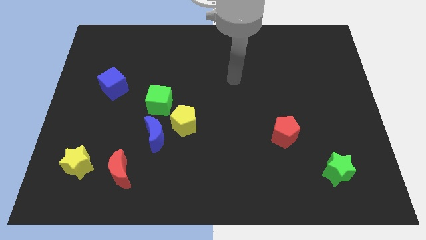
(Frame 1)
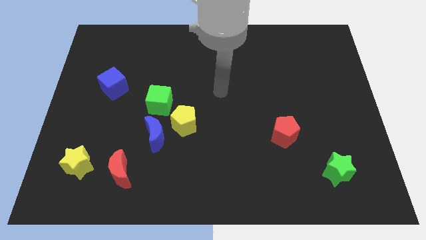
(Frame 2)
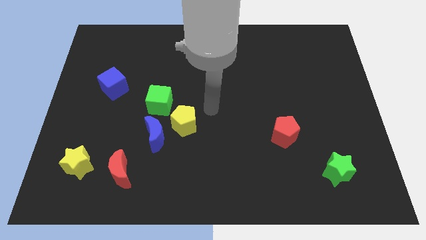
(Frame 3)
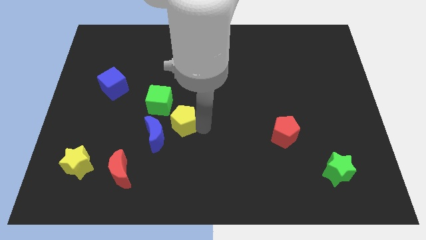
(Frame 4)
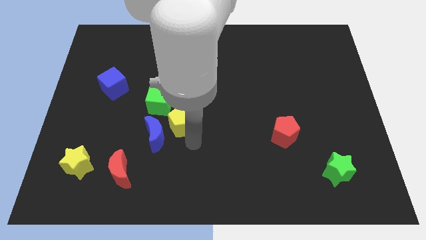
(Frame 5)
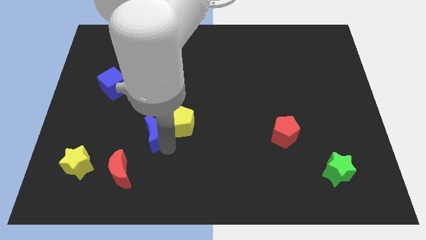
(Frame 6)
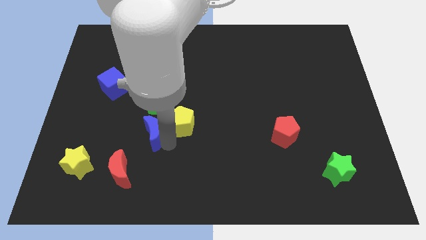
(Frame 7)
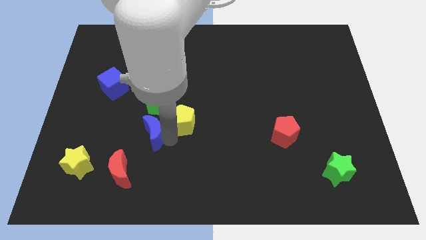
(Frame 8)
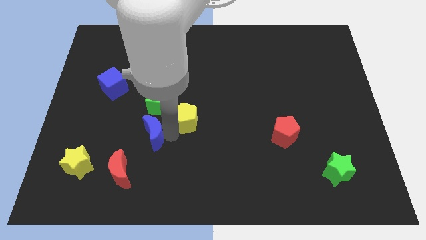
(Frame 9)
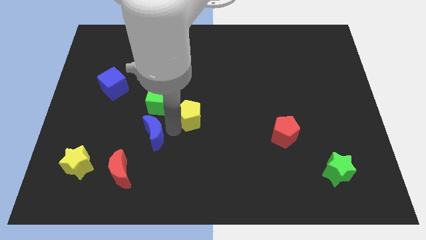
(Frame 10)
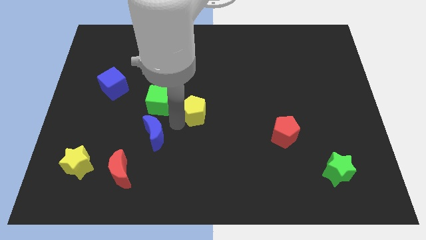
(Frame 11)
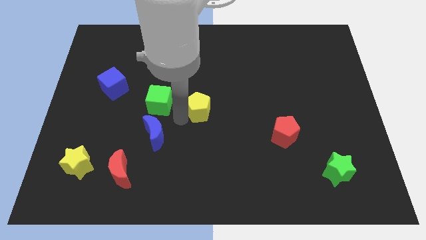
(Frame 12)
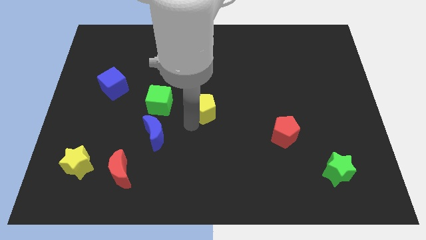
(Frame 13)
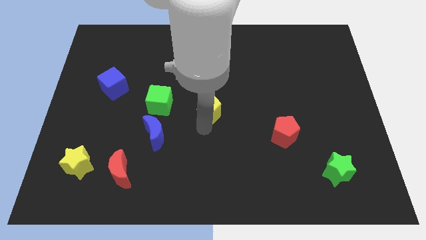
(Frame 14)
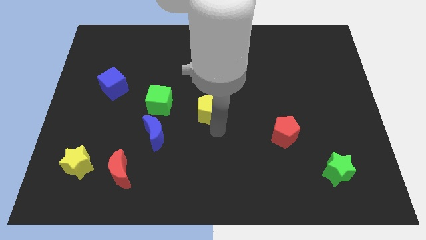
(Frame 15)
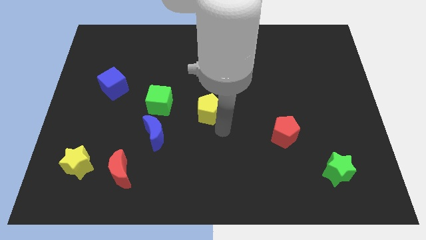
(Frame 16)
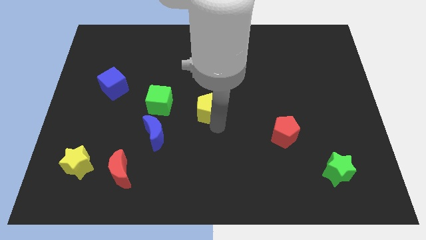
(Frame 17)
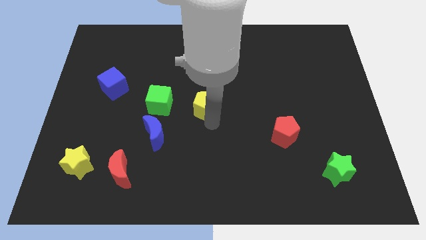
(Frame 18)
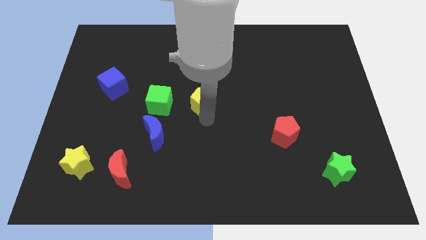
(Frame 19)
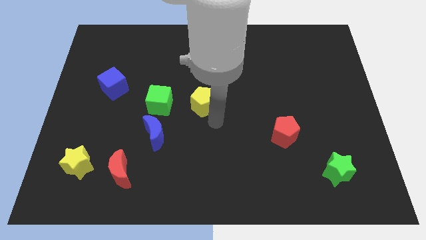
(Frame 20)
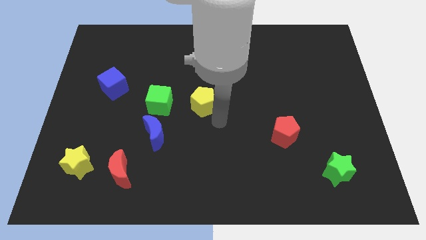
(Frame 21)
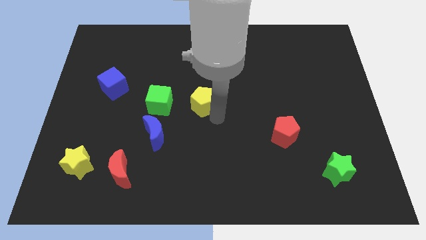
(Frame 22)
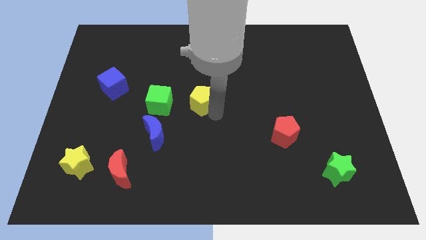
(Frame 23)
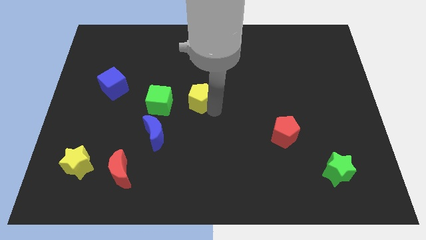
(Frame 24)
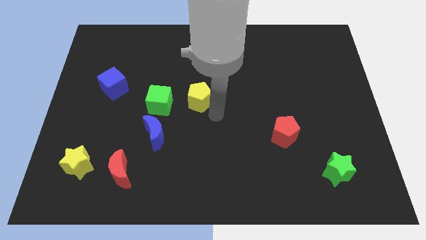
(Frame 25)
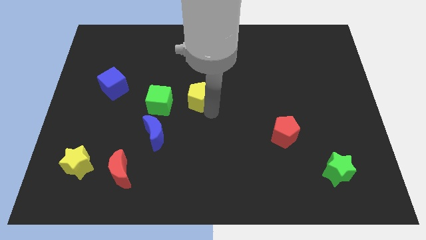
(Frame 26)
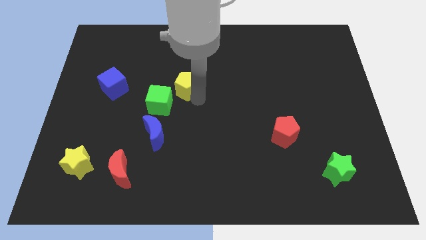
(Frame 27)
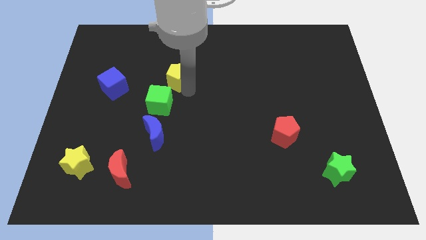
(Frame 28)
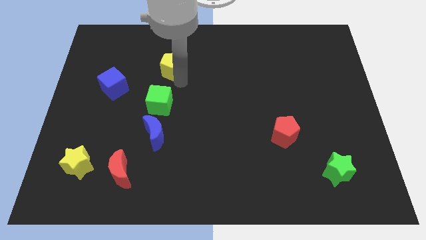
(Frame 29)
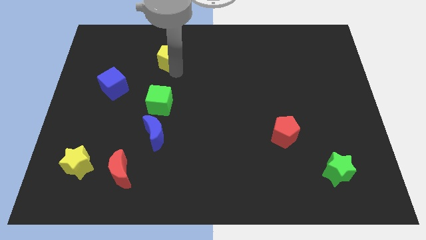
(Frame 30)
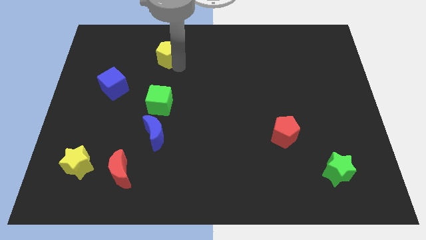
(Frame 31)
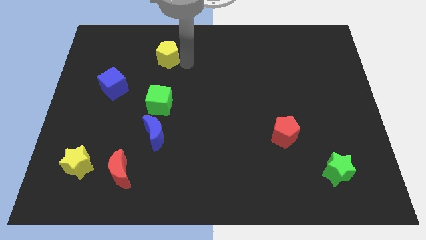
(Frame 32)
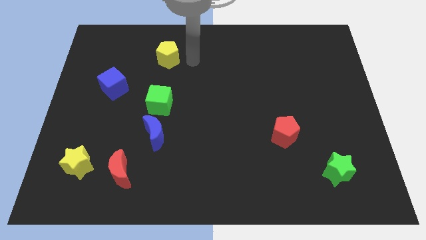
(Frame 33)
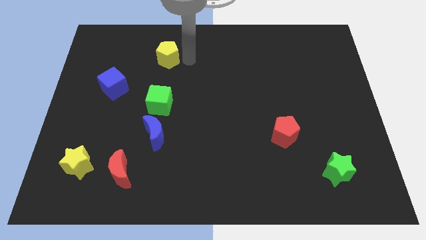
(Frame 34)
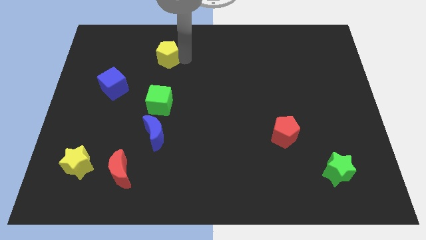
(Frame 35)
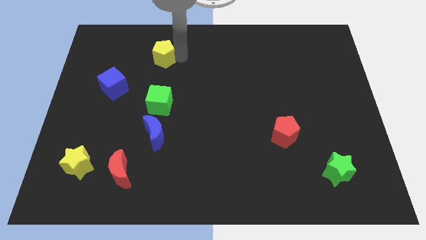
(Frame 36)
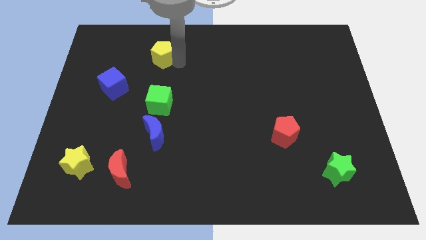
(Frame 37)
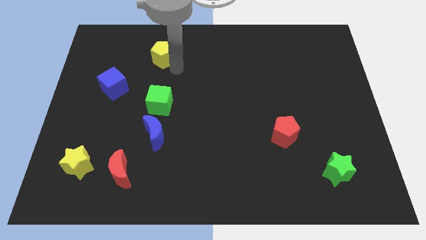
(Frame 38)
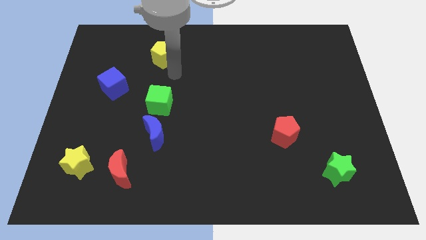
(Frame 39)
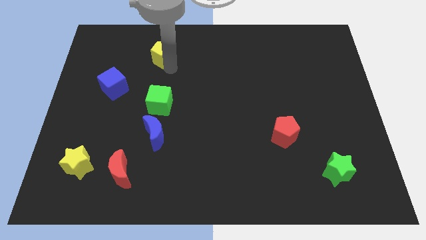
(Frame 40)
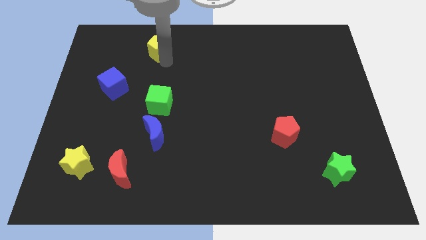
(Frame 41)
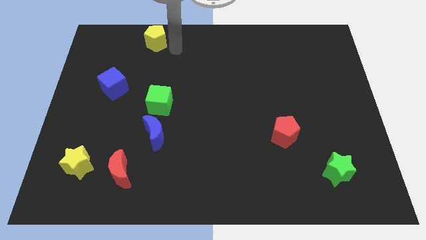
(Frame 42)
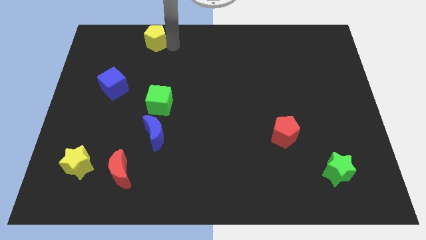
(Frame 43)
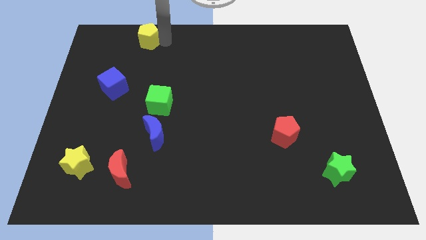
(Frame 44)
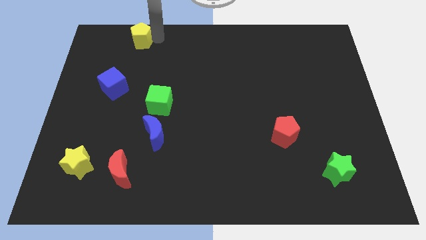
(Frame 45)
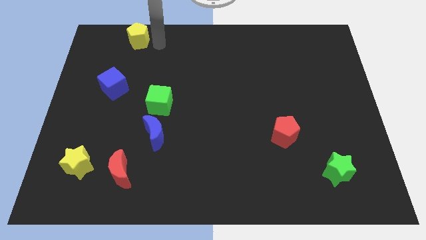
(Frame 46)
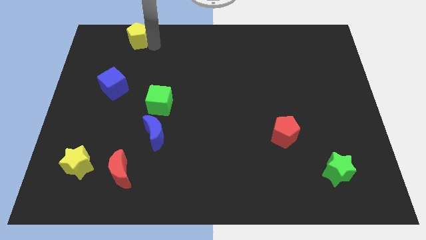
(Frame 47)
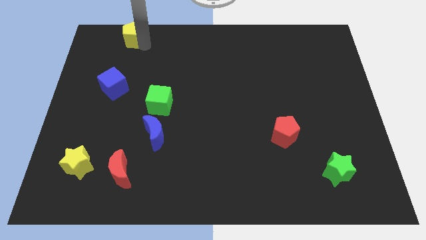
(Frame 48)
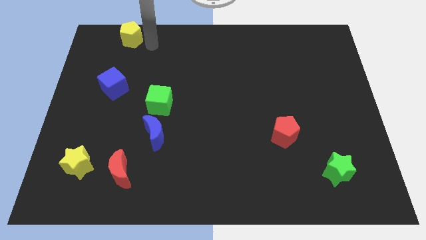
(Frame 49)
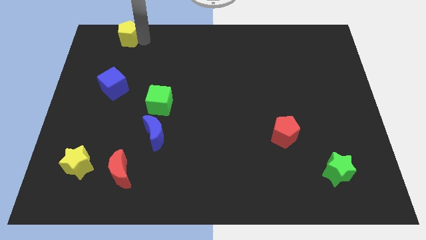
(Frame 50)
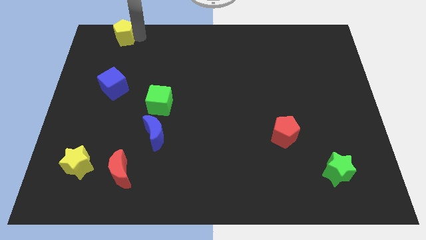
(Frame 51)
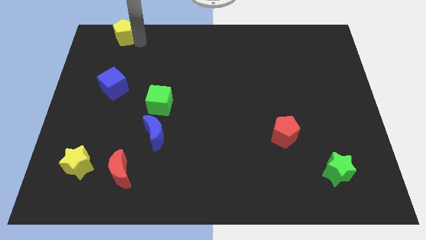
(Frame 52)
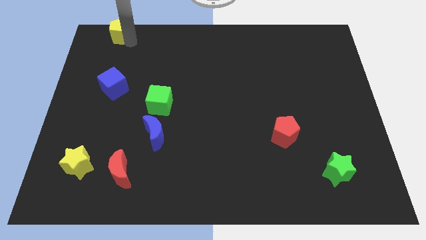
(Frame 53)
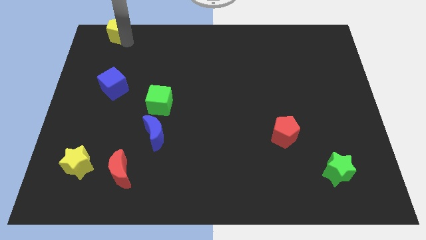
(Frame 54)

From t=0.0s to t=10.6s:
put the yellow pentagon to the top left of the board

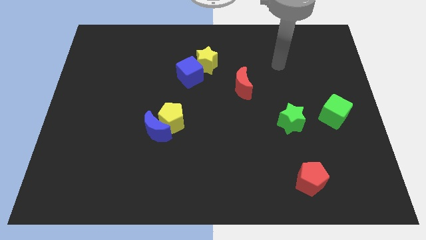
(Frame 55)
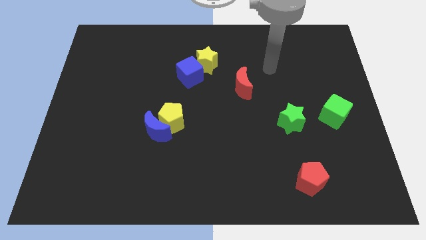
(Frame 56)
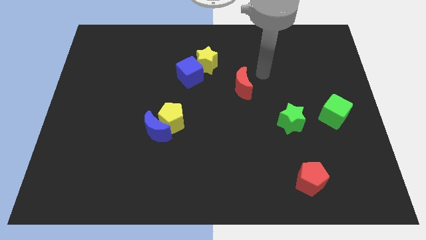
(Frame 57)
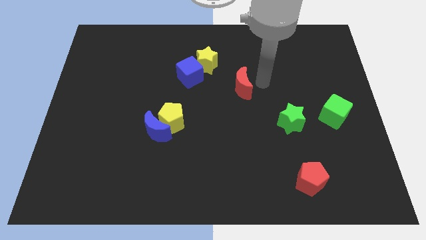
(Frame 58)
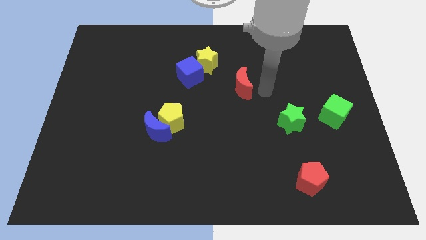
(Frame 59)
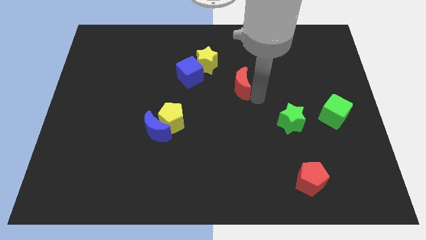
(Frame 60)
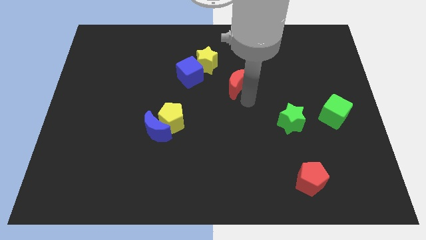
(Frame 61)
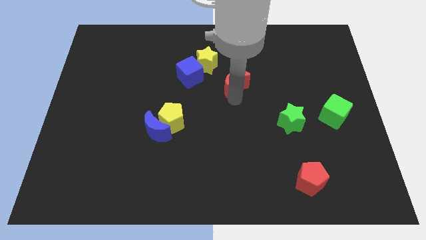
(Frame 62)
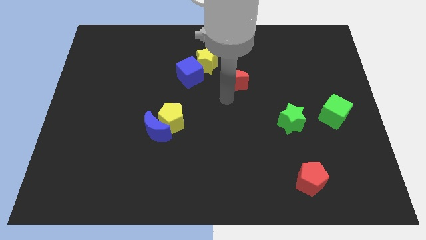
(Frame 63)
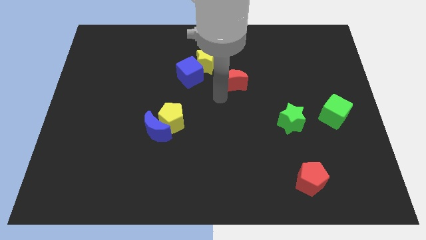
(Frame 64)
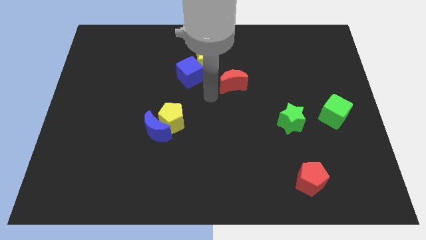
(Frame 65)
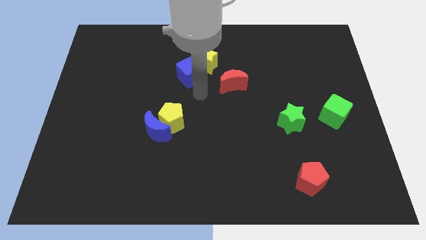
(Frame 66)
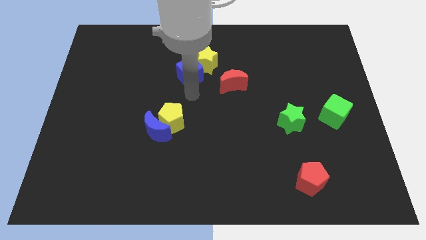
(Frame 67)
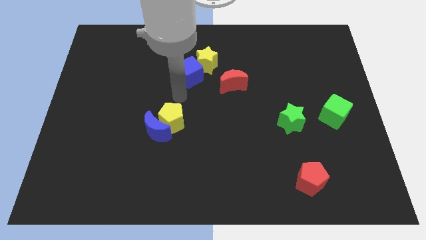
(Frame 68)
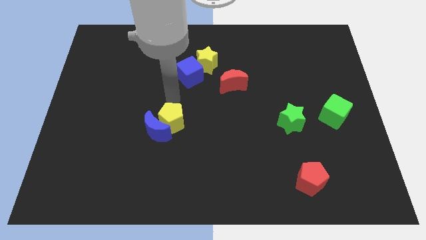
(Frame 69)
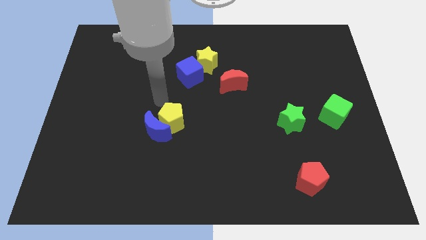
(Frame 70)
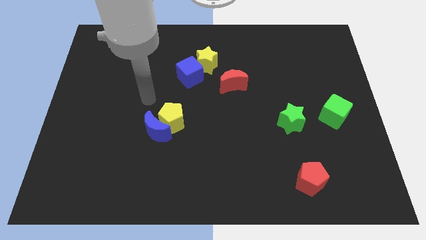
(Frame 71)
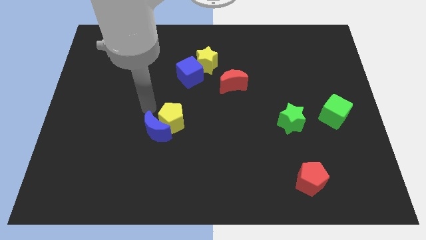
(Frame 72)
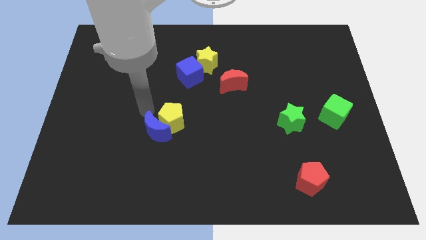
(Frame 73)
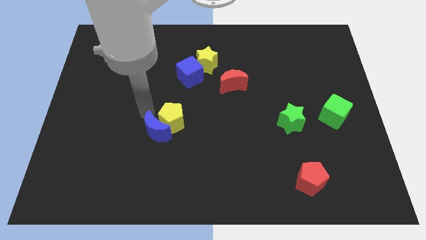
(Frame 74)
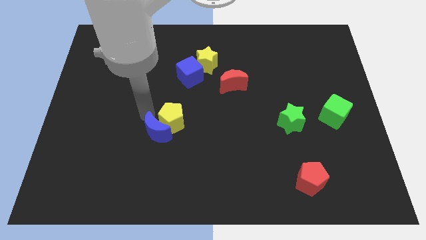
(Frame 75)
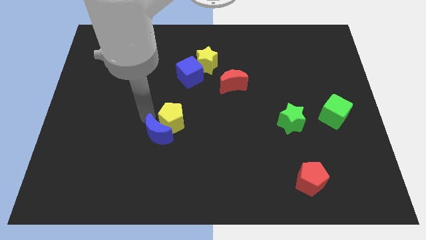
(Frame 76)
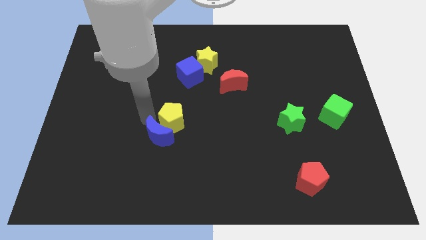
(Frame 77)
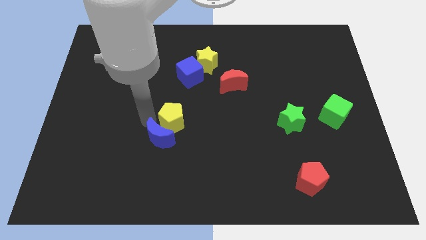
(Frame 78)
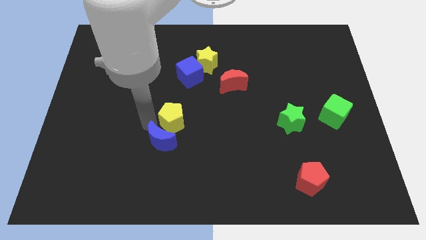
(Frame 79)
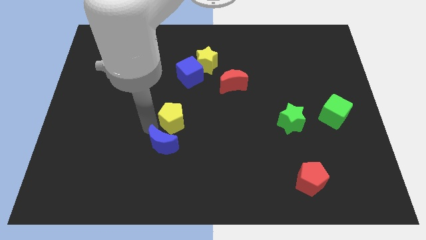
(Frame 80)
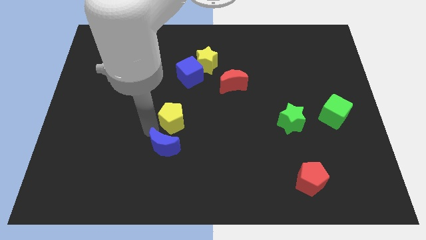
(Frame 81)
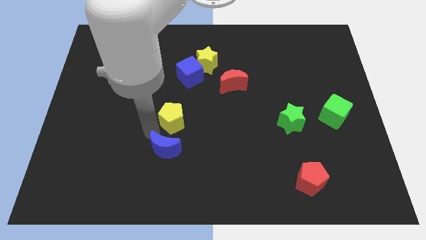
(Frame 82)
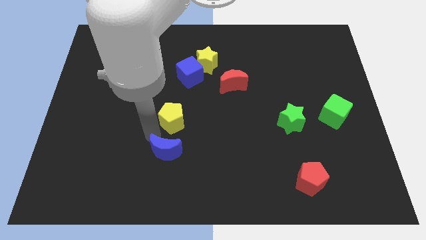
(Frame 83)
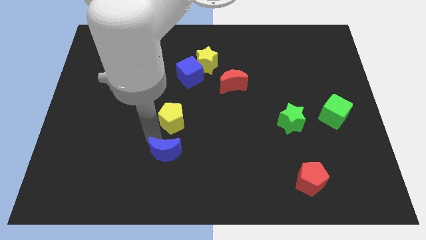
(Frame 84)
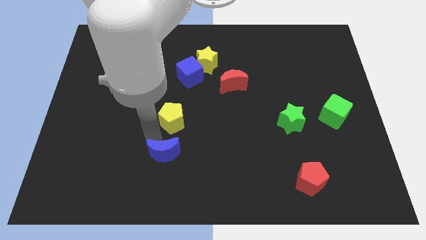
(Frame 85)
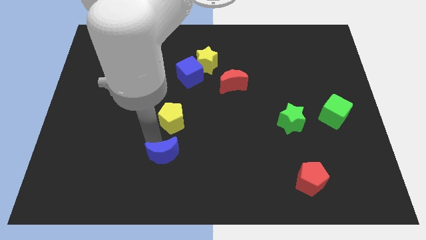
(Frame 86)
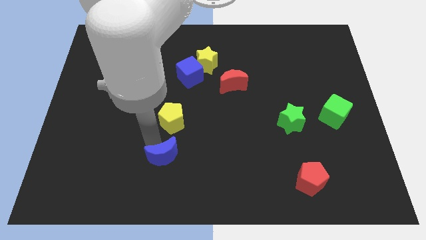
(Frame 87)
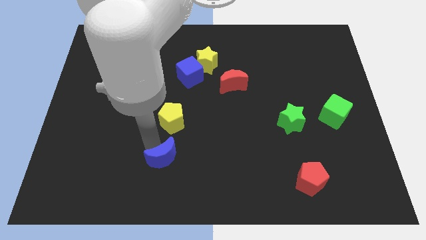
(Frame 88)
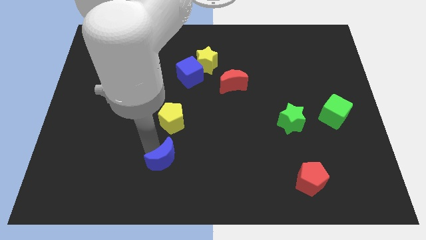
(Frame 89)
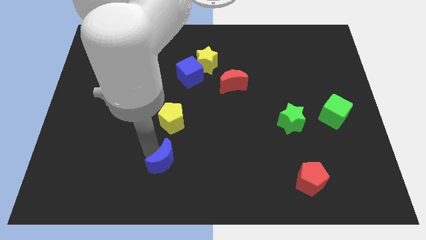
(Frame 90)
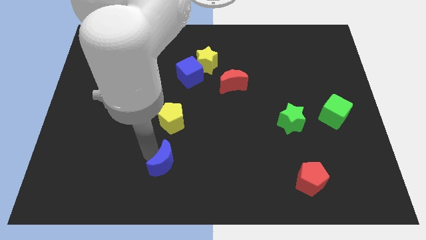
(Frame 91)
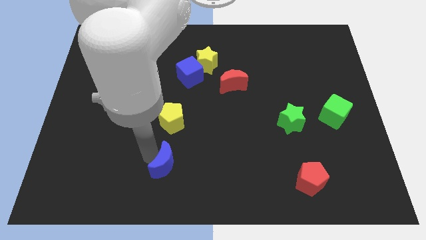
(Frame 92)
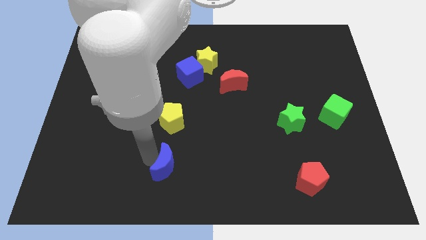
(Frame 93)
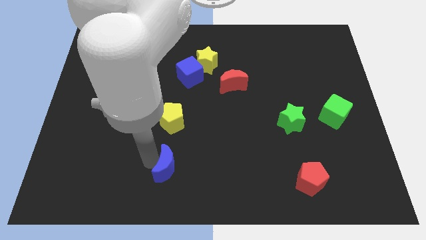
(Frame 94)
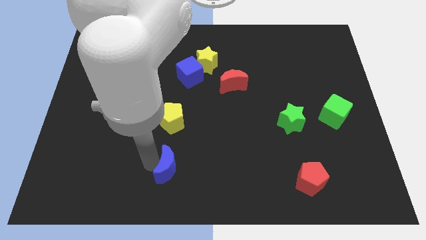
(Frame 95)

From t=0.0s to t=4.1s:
put the blue moon to the bottom side
